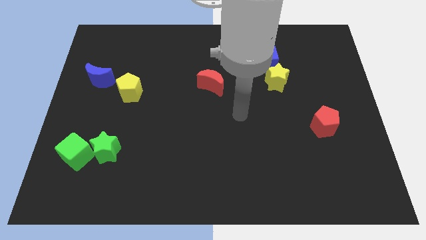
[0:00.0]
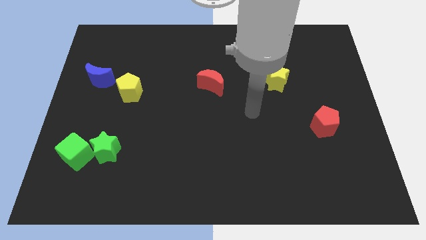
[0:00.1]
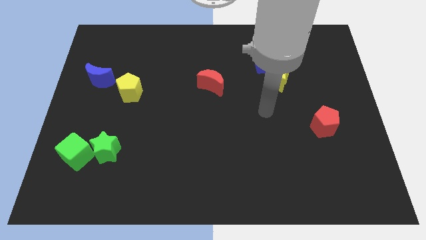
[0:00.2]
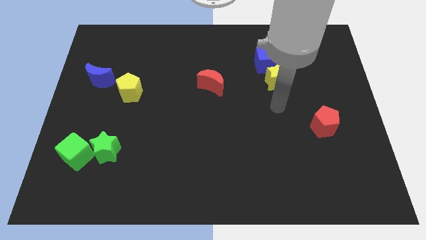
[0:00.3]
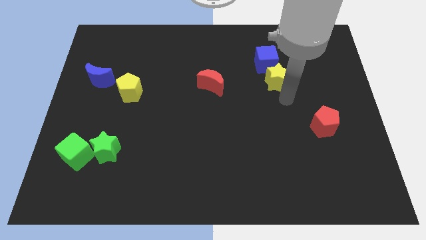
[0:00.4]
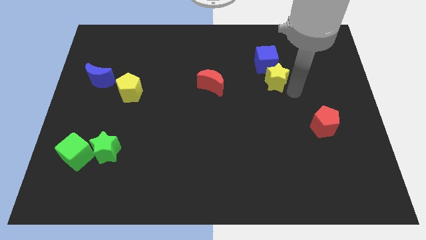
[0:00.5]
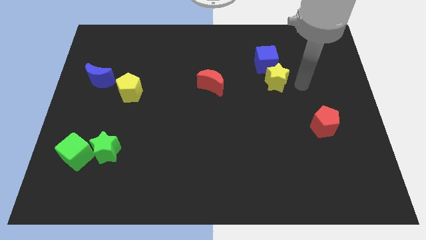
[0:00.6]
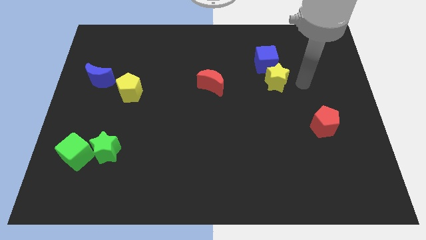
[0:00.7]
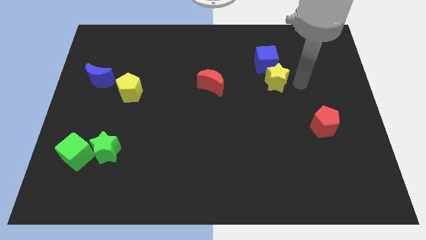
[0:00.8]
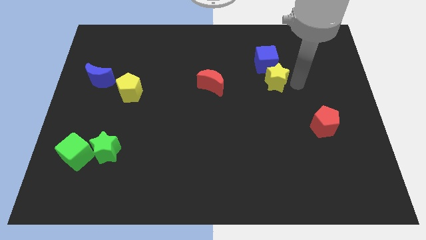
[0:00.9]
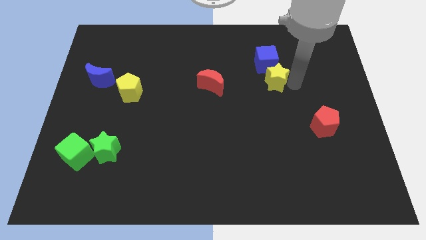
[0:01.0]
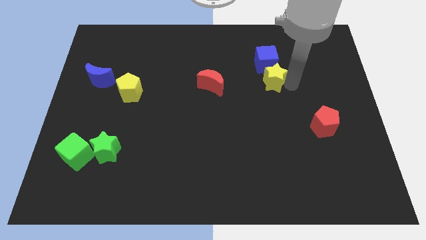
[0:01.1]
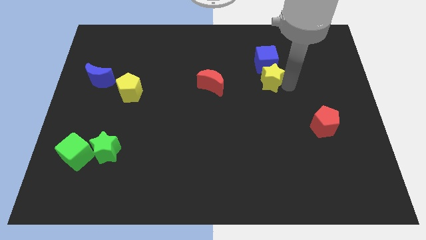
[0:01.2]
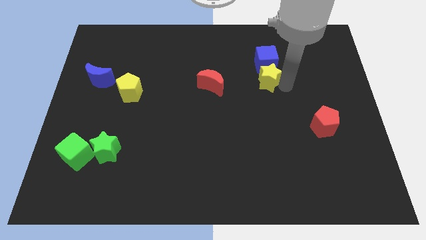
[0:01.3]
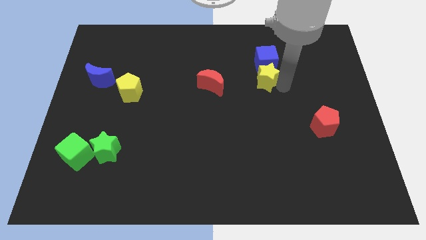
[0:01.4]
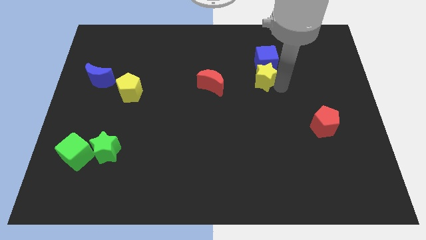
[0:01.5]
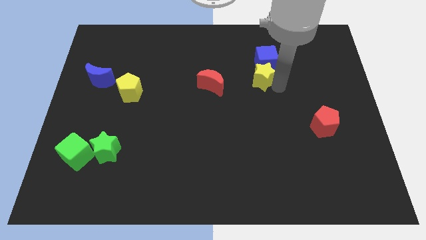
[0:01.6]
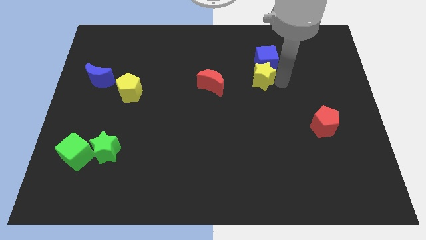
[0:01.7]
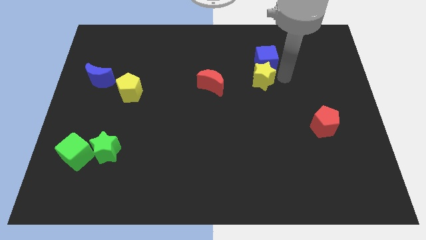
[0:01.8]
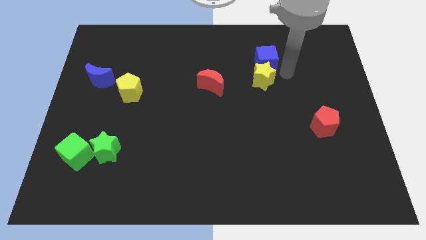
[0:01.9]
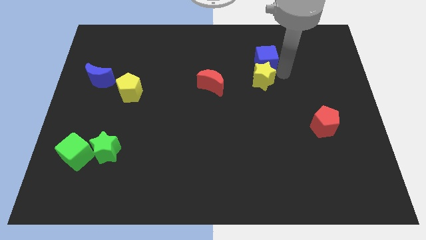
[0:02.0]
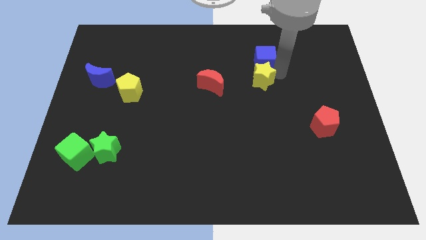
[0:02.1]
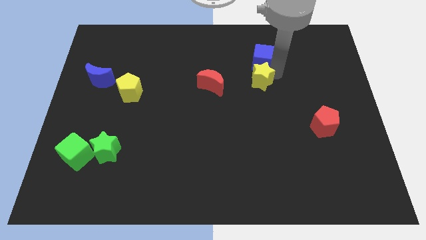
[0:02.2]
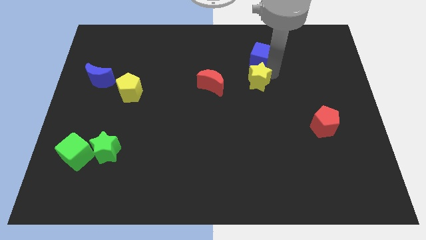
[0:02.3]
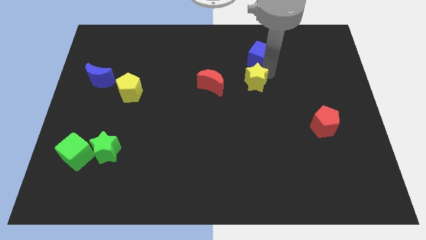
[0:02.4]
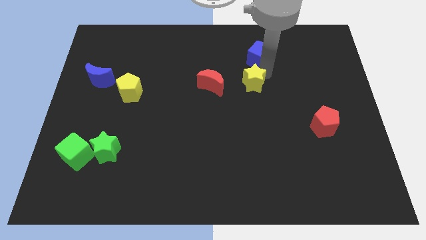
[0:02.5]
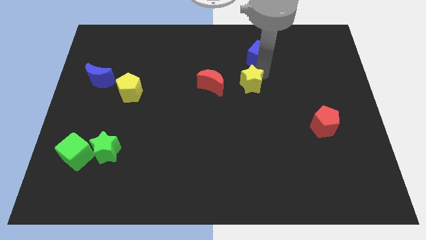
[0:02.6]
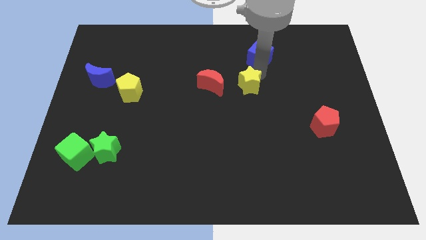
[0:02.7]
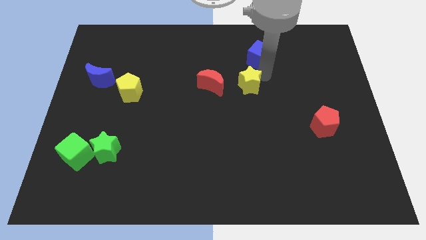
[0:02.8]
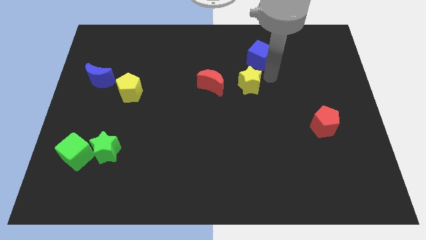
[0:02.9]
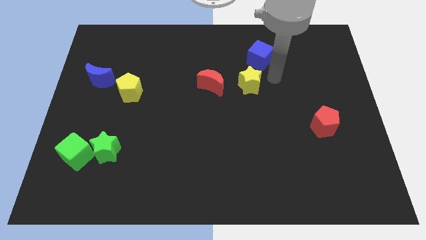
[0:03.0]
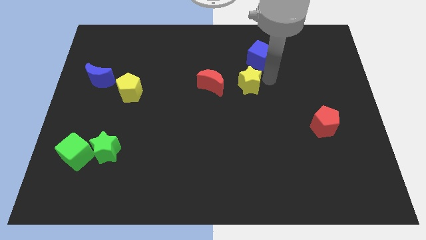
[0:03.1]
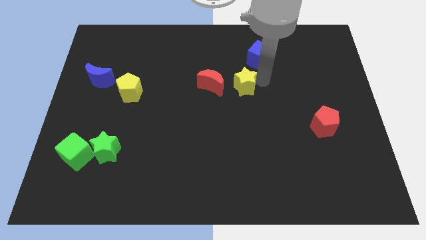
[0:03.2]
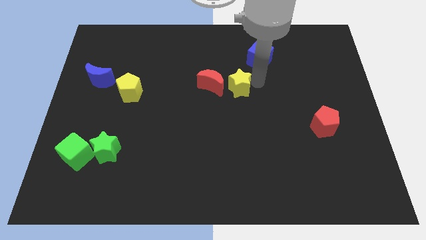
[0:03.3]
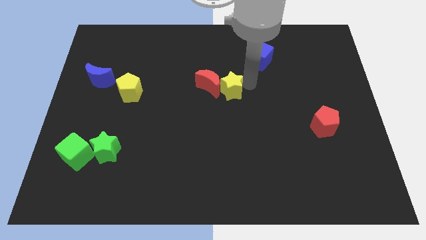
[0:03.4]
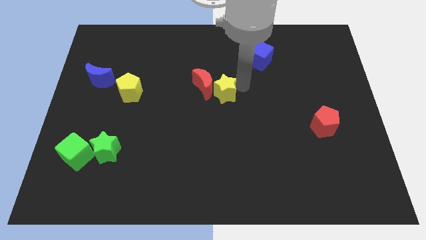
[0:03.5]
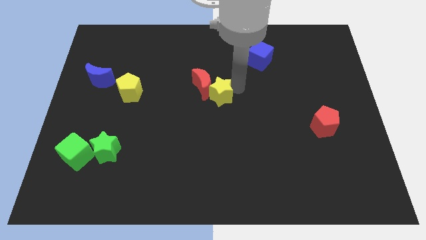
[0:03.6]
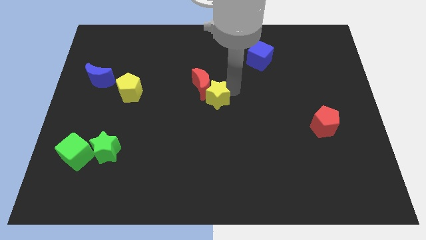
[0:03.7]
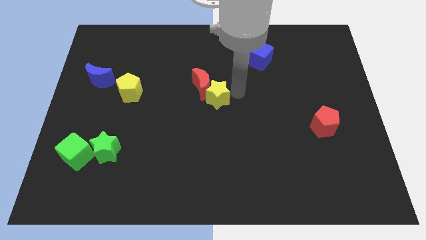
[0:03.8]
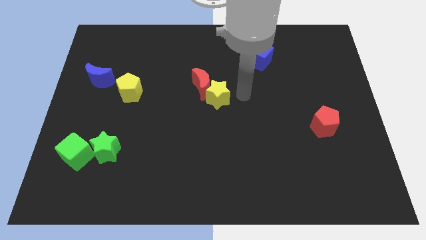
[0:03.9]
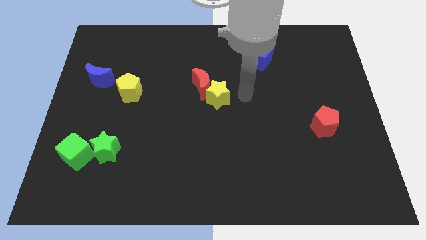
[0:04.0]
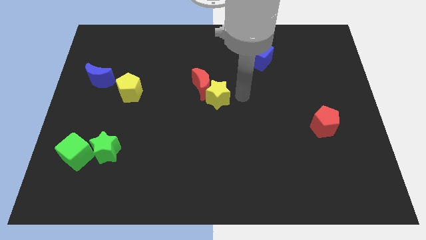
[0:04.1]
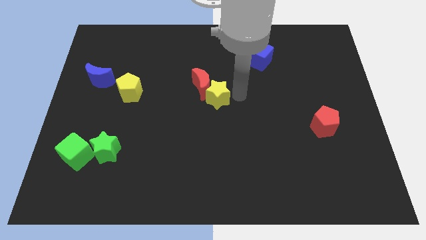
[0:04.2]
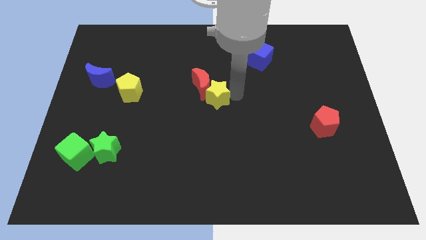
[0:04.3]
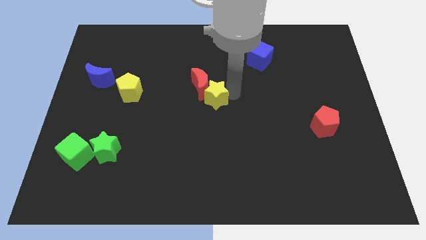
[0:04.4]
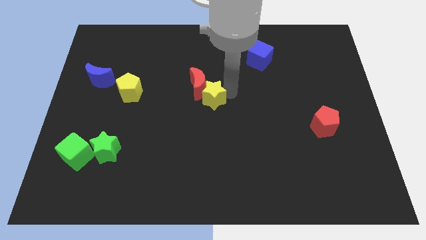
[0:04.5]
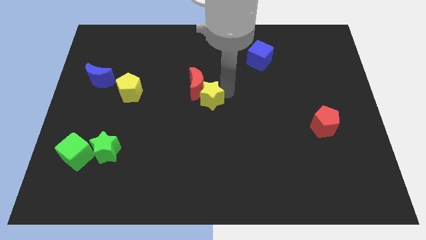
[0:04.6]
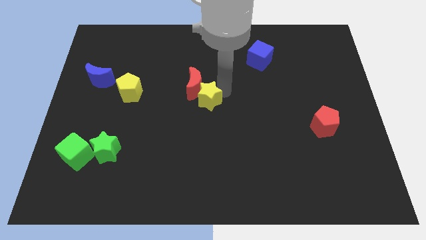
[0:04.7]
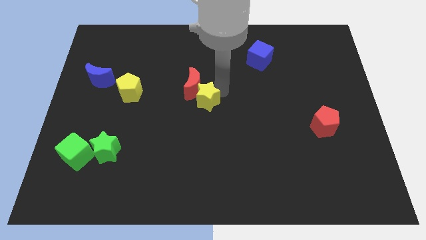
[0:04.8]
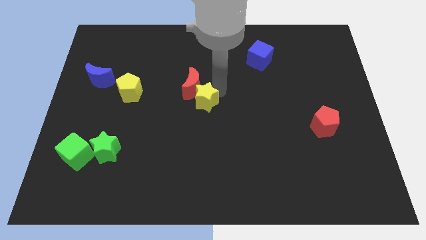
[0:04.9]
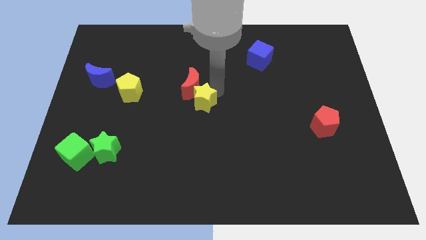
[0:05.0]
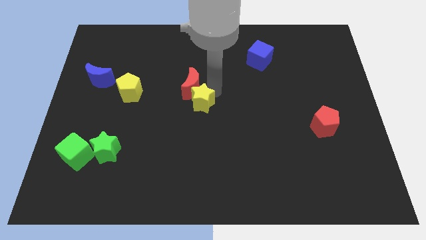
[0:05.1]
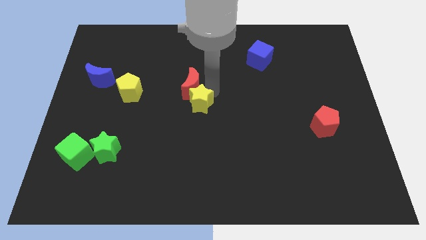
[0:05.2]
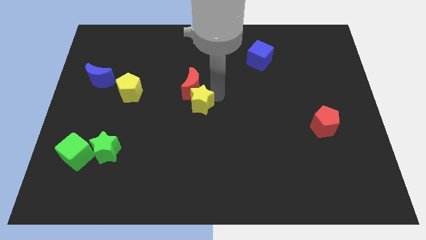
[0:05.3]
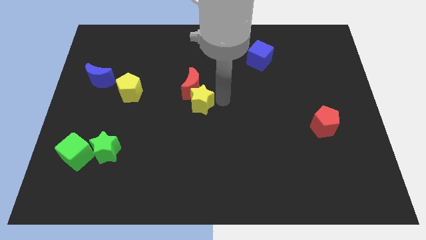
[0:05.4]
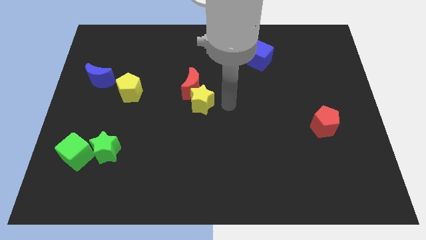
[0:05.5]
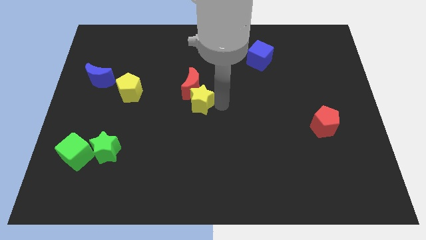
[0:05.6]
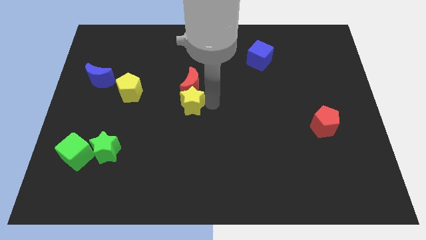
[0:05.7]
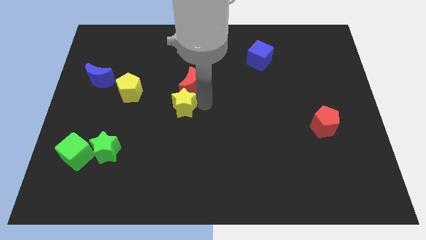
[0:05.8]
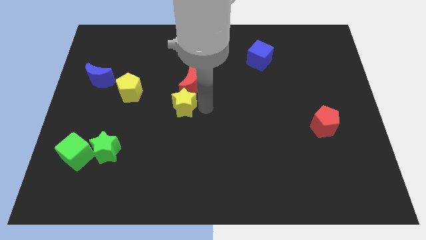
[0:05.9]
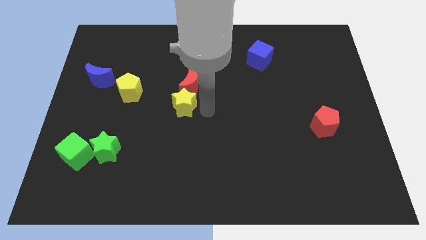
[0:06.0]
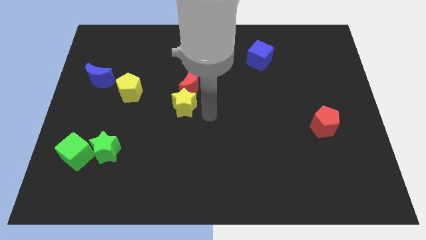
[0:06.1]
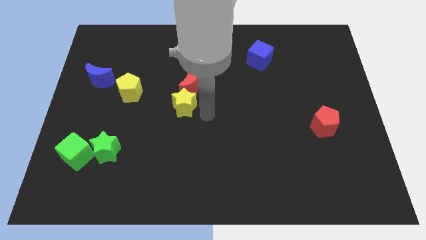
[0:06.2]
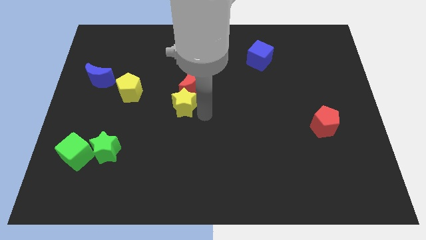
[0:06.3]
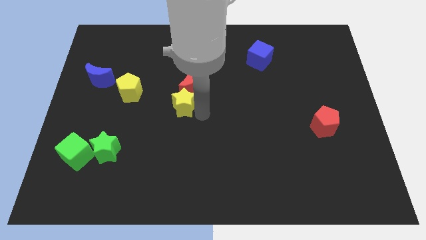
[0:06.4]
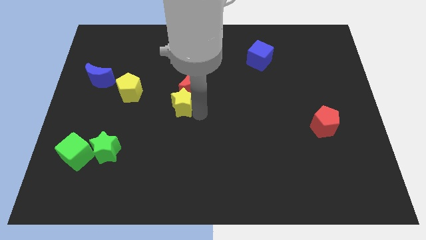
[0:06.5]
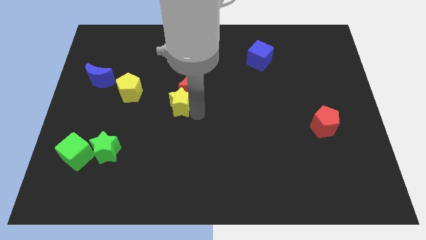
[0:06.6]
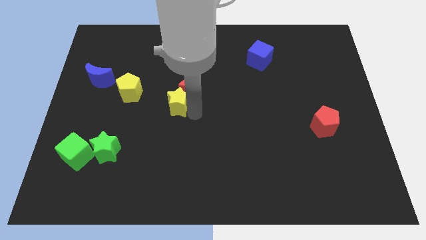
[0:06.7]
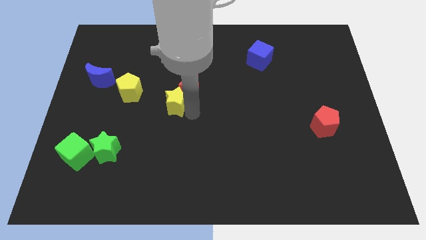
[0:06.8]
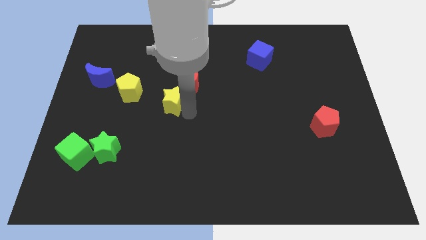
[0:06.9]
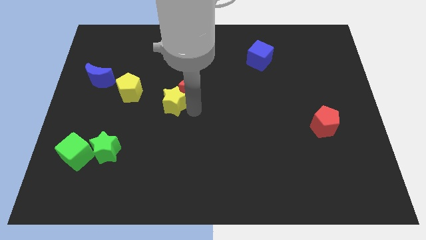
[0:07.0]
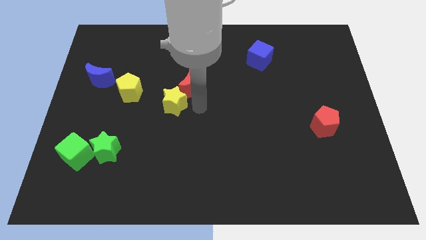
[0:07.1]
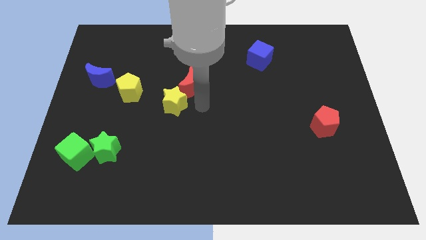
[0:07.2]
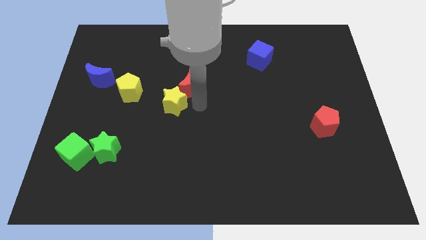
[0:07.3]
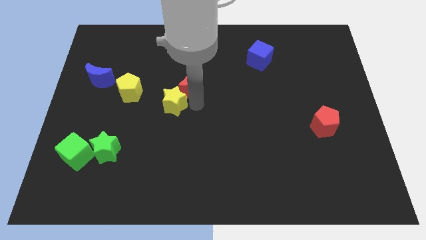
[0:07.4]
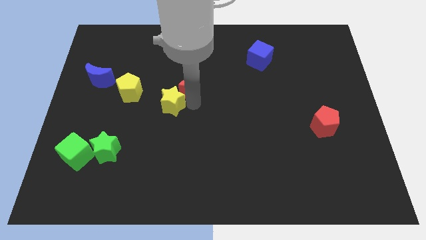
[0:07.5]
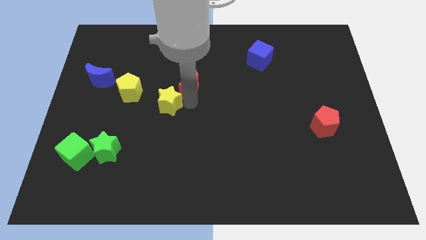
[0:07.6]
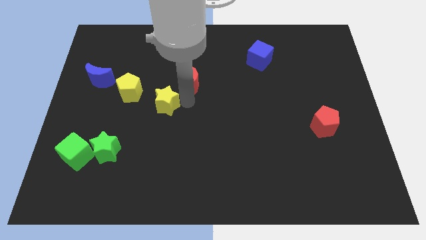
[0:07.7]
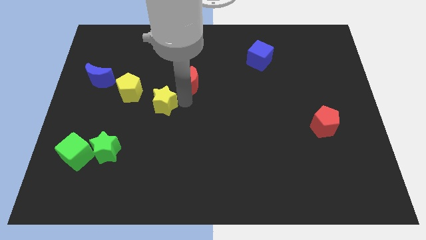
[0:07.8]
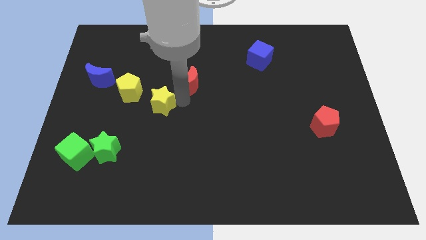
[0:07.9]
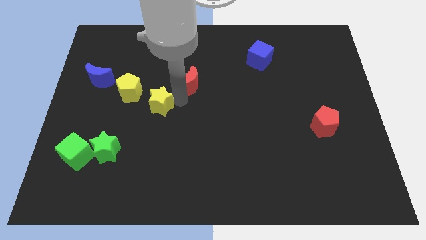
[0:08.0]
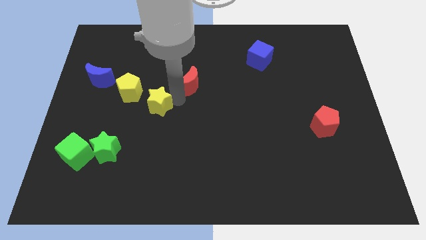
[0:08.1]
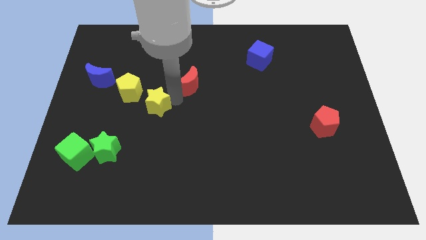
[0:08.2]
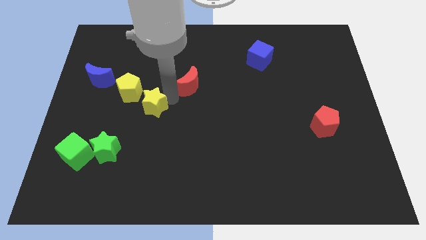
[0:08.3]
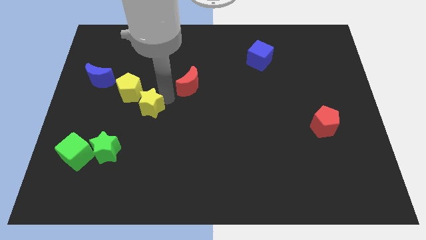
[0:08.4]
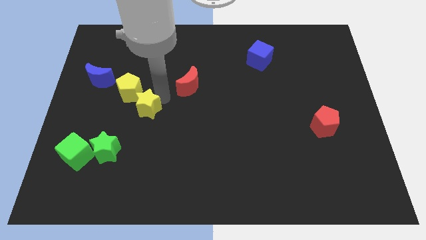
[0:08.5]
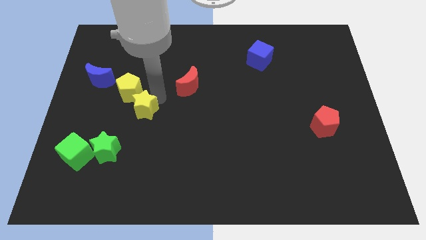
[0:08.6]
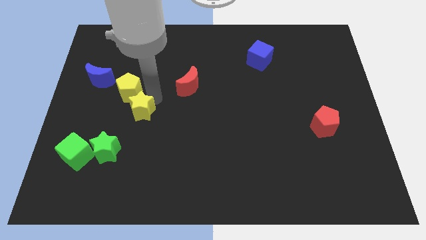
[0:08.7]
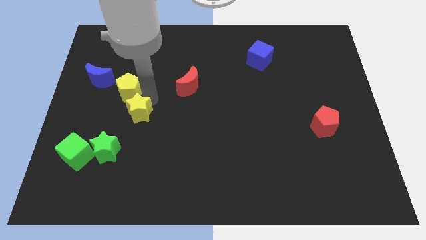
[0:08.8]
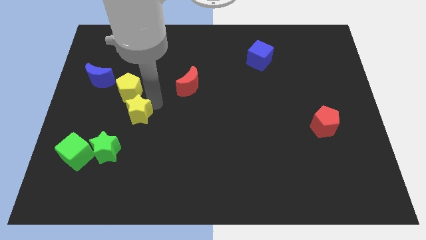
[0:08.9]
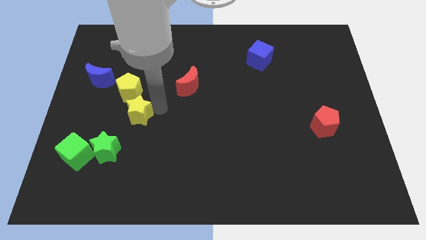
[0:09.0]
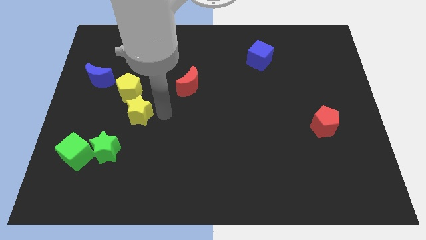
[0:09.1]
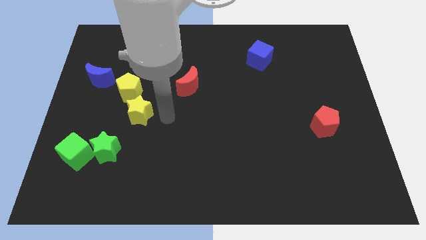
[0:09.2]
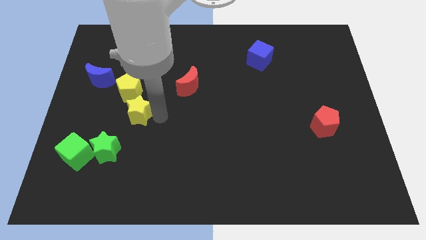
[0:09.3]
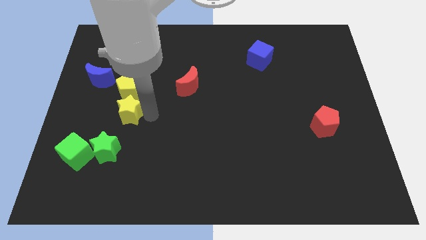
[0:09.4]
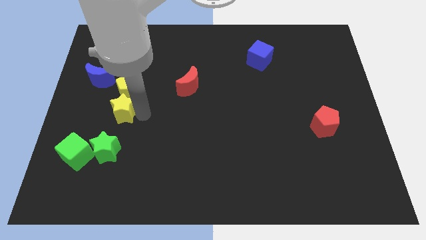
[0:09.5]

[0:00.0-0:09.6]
push the yellow star to the bottom left of the yellow pentagon
